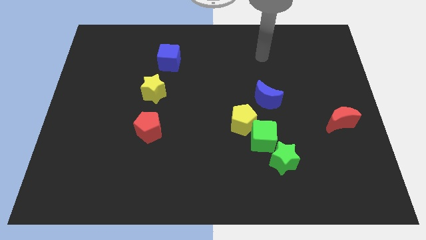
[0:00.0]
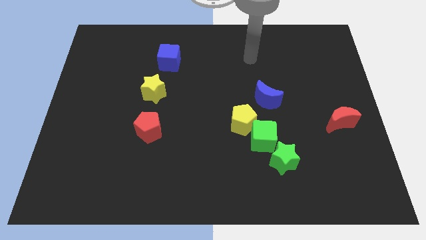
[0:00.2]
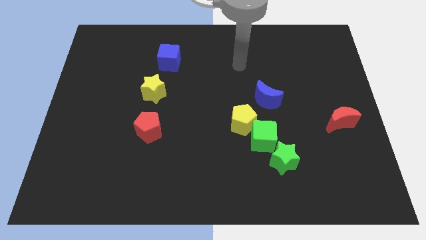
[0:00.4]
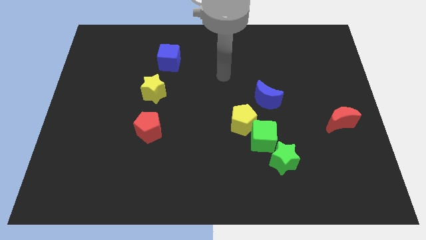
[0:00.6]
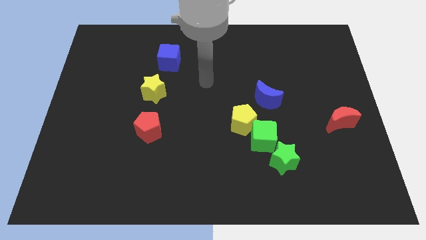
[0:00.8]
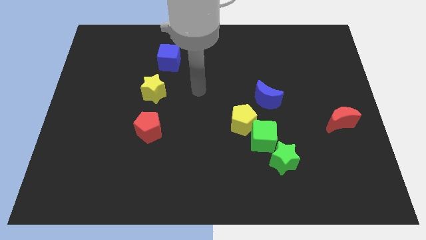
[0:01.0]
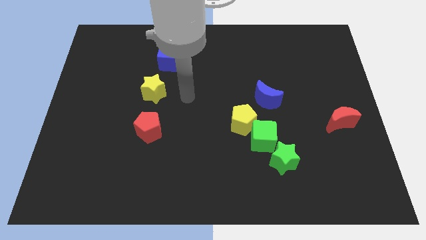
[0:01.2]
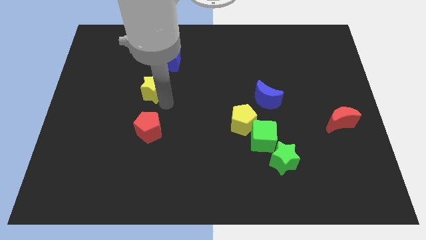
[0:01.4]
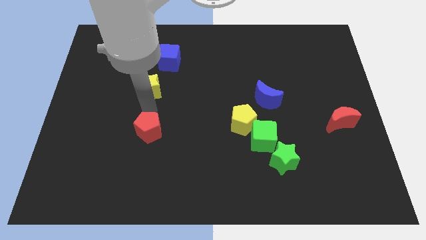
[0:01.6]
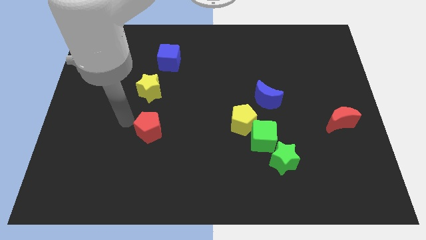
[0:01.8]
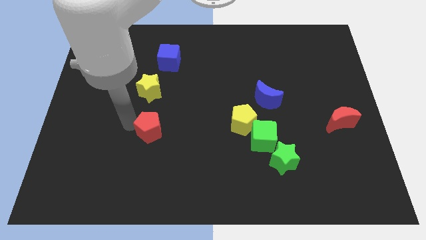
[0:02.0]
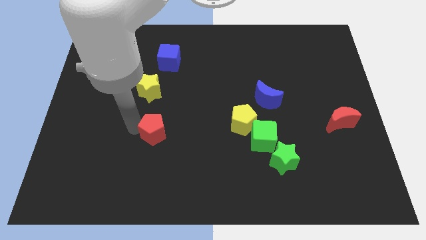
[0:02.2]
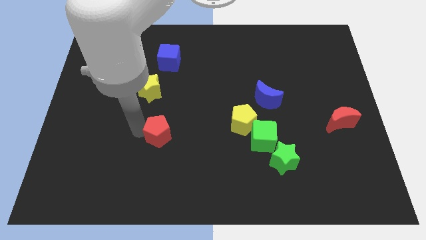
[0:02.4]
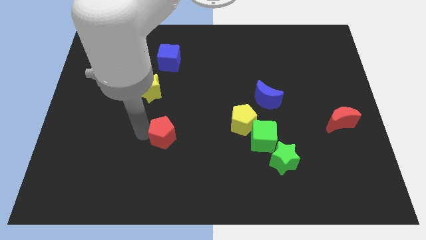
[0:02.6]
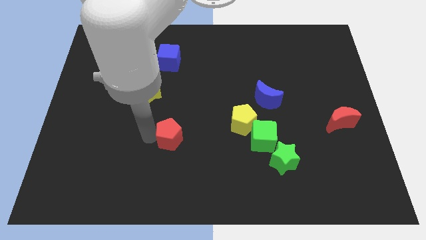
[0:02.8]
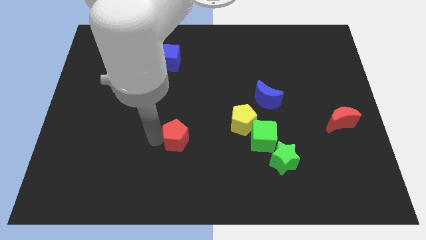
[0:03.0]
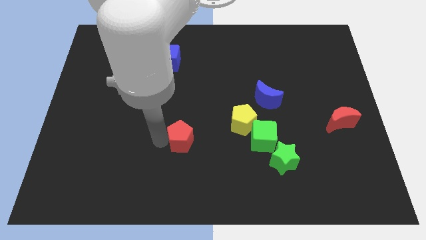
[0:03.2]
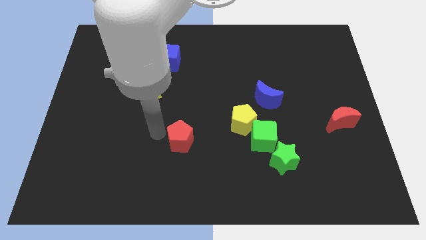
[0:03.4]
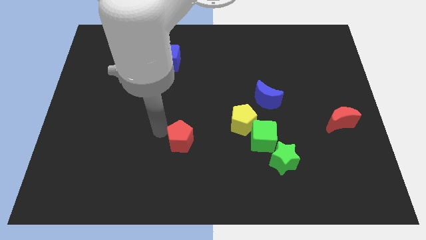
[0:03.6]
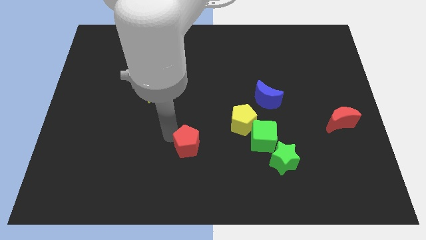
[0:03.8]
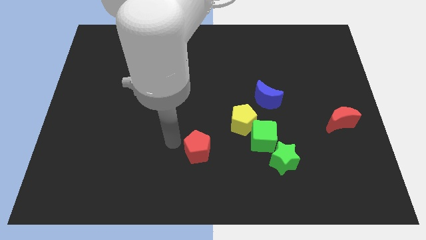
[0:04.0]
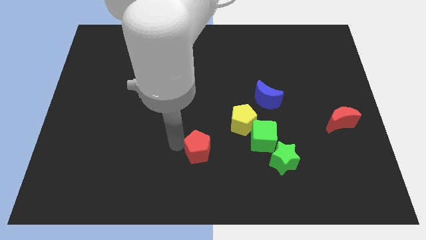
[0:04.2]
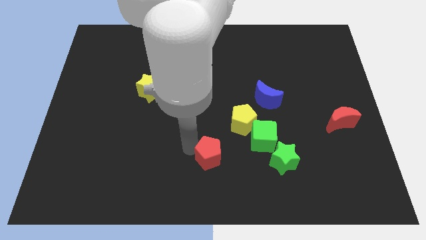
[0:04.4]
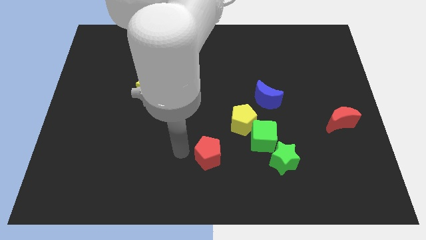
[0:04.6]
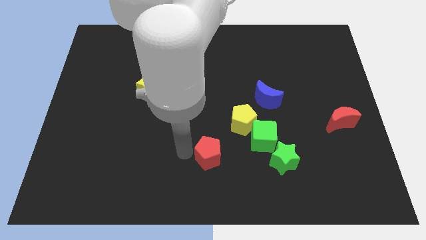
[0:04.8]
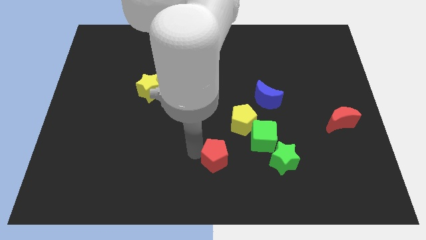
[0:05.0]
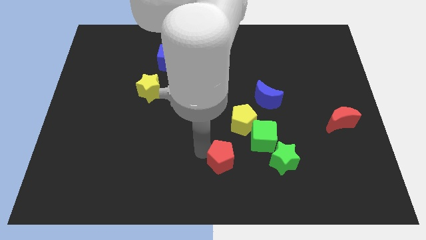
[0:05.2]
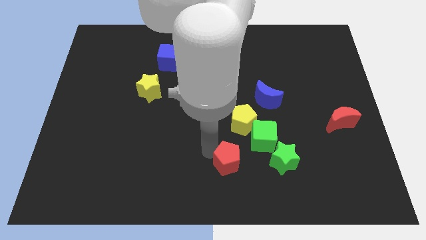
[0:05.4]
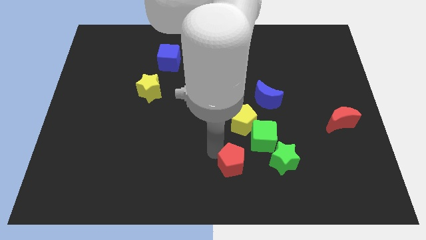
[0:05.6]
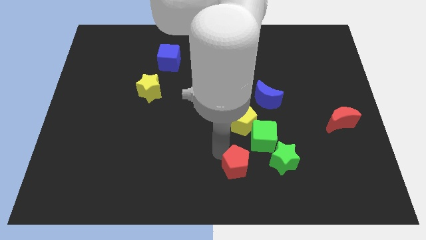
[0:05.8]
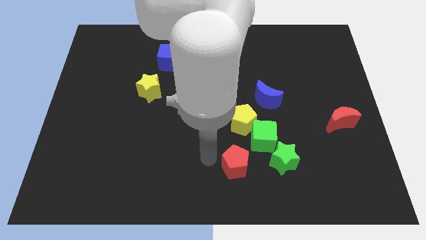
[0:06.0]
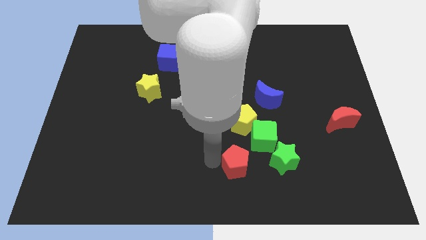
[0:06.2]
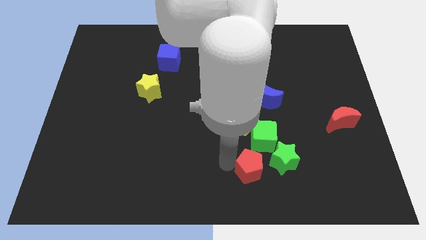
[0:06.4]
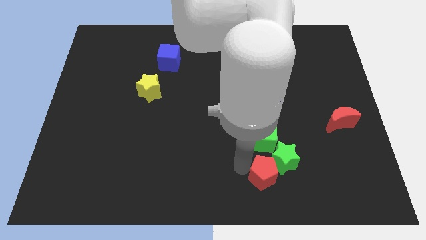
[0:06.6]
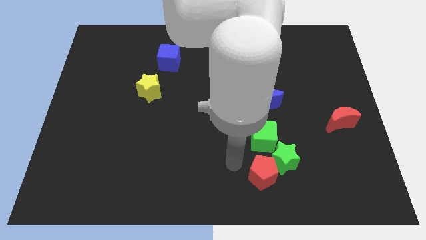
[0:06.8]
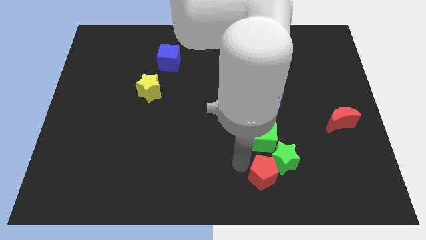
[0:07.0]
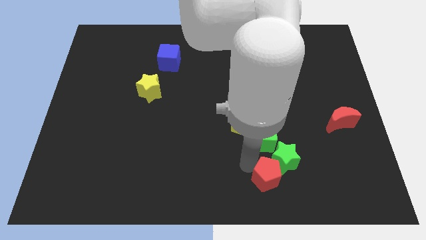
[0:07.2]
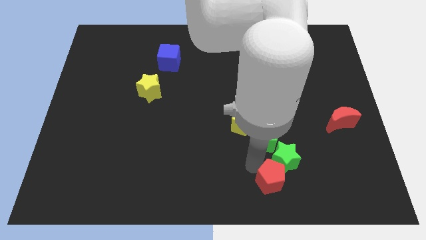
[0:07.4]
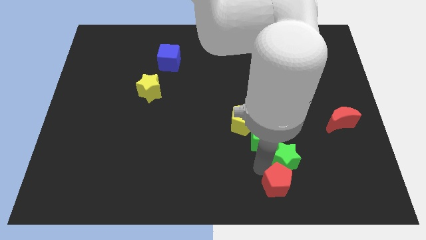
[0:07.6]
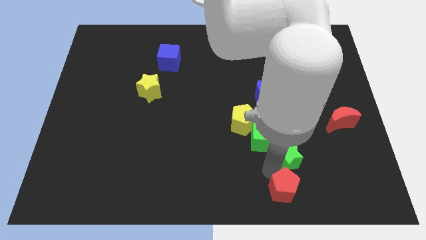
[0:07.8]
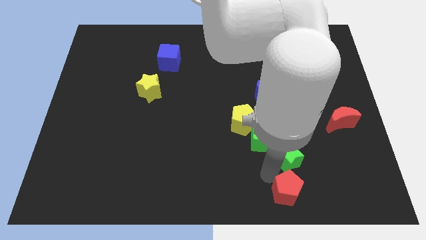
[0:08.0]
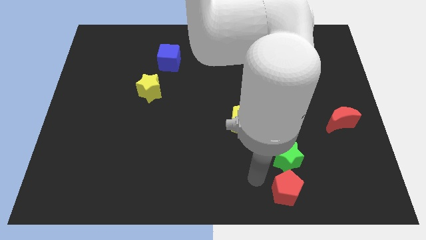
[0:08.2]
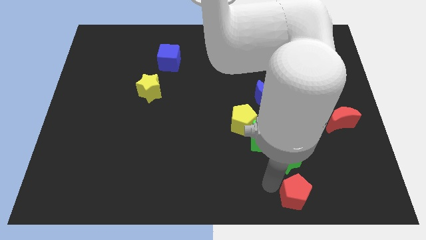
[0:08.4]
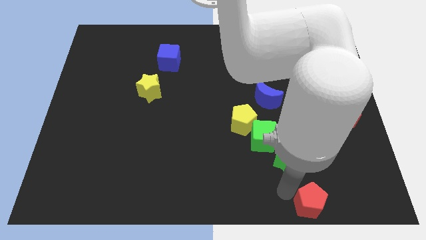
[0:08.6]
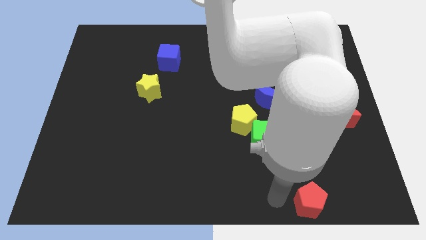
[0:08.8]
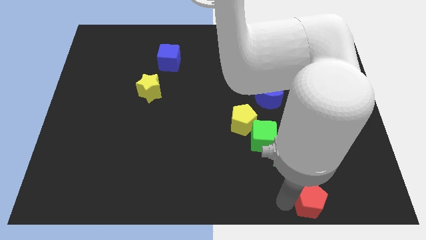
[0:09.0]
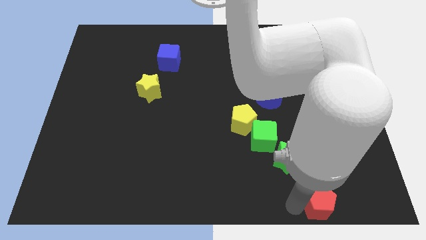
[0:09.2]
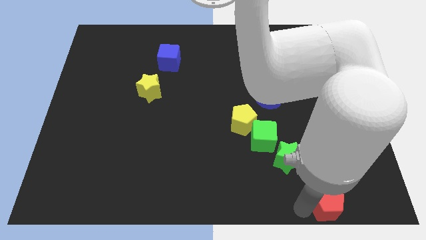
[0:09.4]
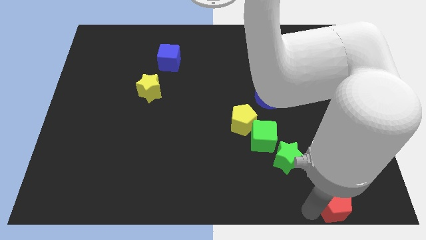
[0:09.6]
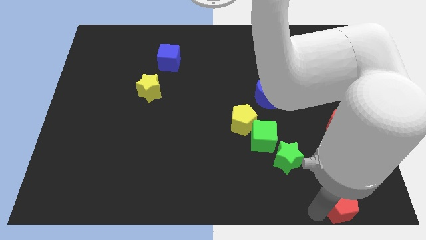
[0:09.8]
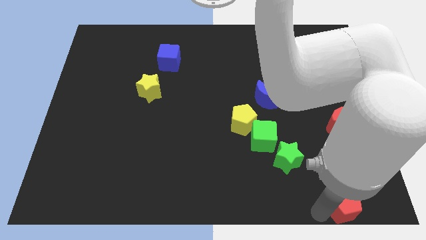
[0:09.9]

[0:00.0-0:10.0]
slide the red pentagon to the bottom right

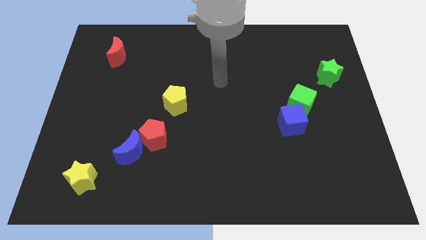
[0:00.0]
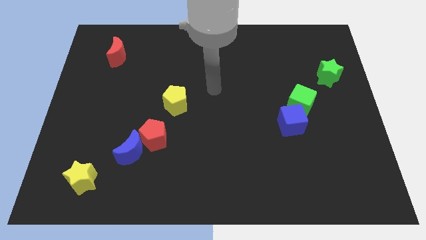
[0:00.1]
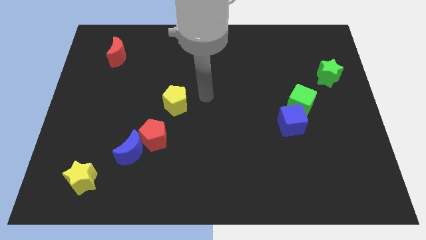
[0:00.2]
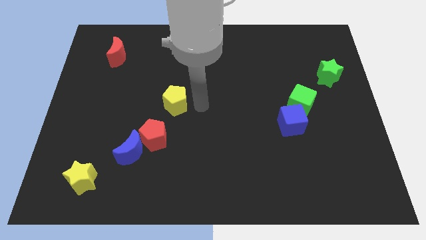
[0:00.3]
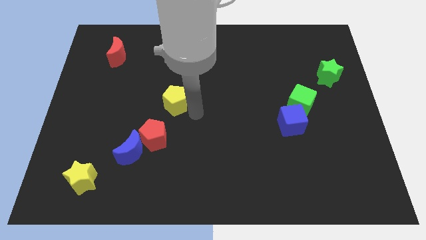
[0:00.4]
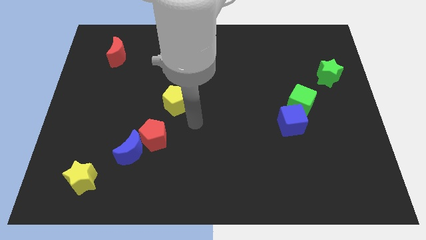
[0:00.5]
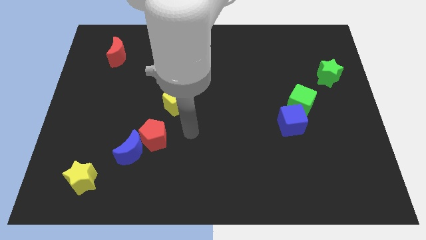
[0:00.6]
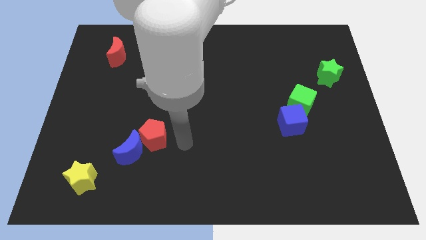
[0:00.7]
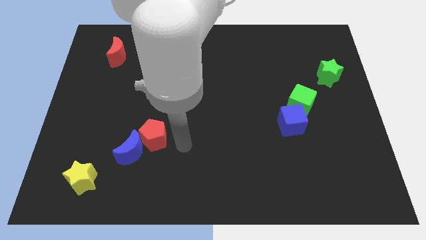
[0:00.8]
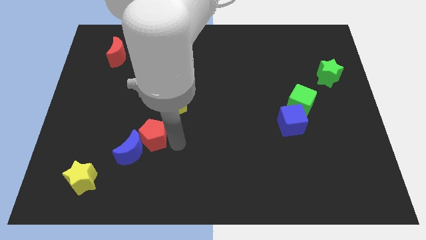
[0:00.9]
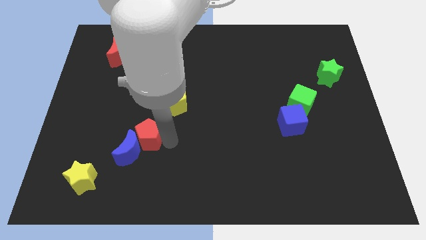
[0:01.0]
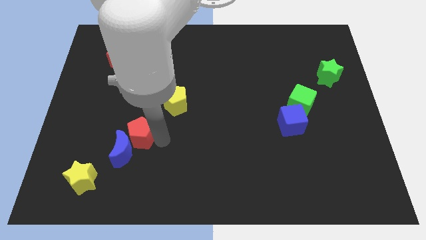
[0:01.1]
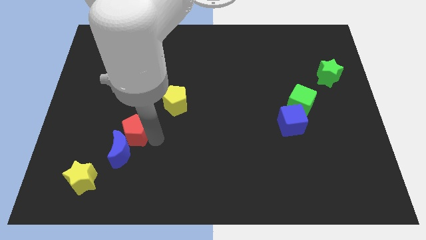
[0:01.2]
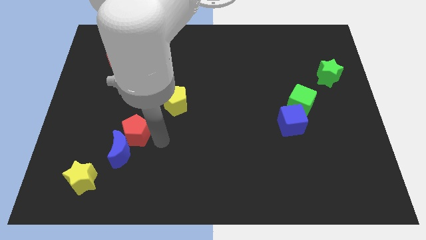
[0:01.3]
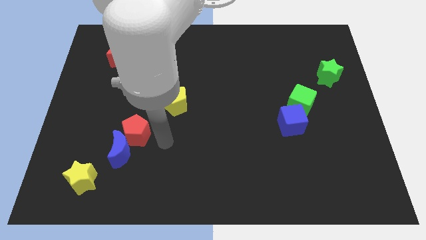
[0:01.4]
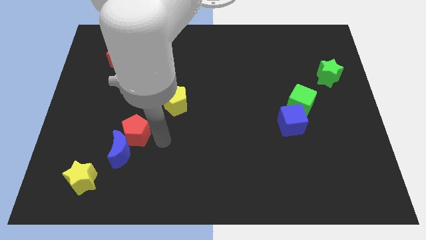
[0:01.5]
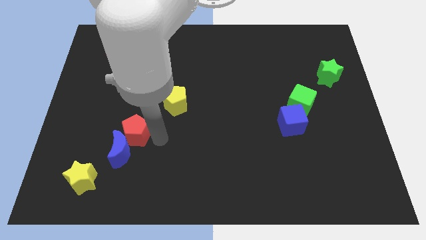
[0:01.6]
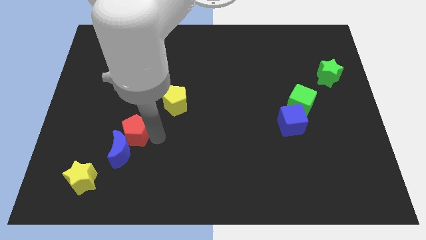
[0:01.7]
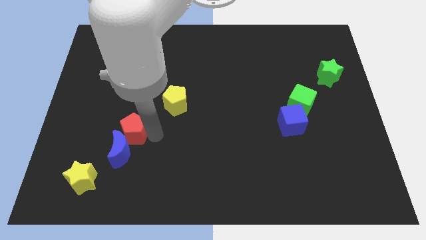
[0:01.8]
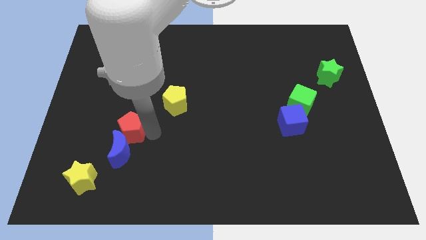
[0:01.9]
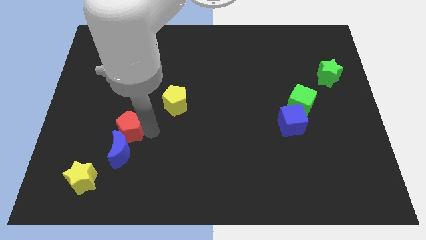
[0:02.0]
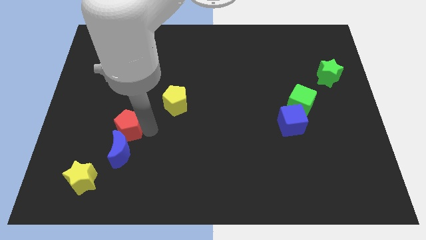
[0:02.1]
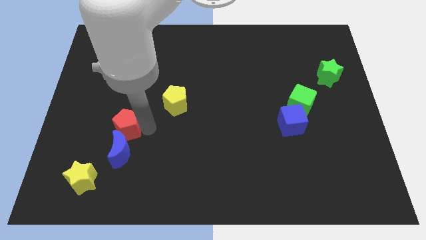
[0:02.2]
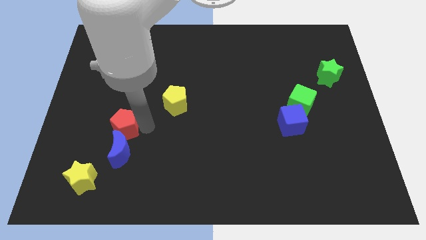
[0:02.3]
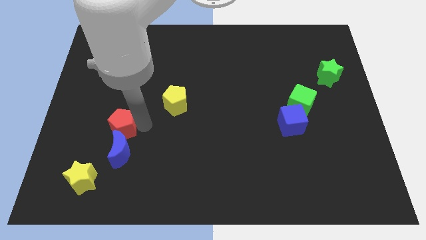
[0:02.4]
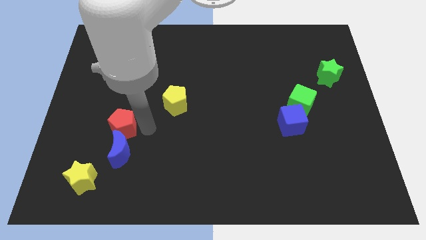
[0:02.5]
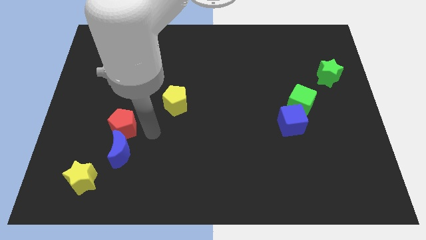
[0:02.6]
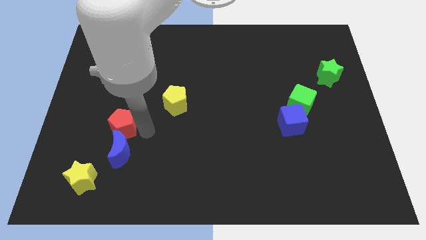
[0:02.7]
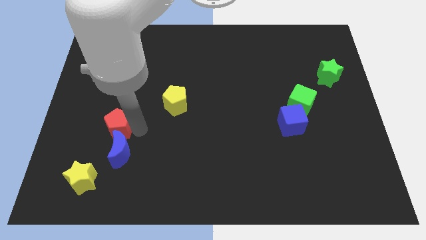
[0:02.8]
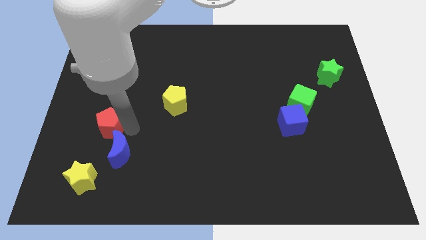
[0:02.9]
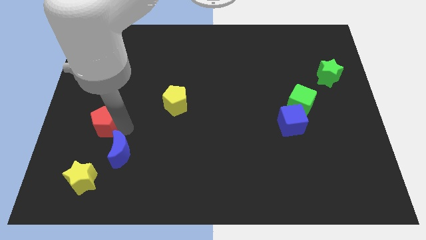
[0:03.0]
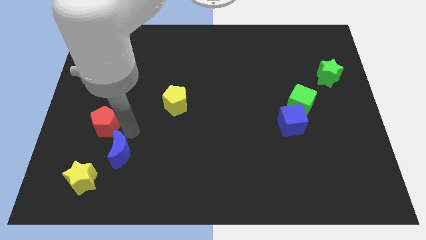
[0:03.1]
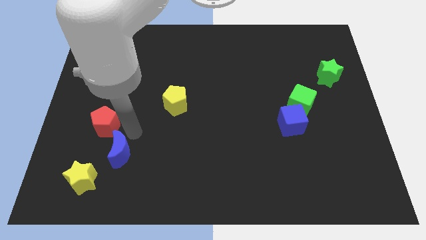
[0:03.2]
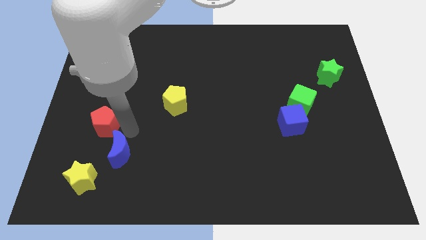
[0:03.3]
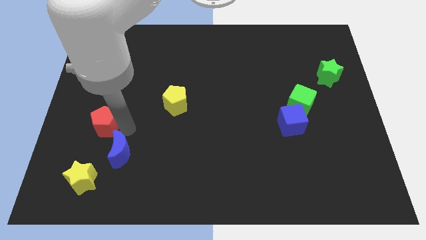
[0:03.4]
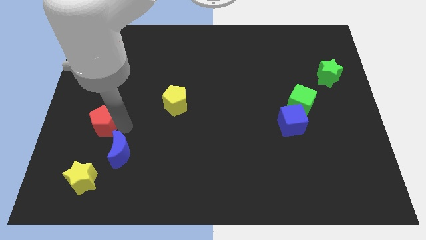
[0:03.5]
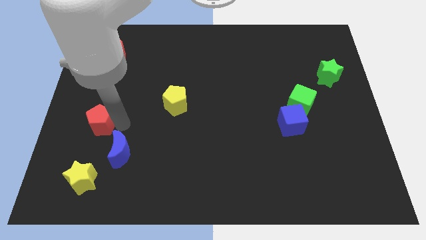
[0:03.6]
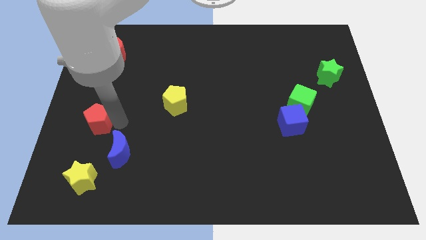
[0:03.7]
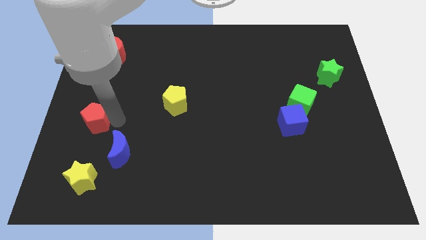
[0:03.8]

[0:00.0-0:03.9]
put the red pentagon to the left side of the board
